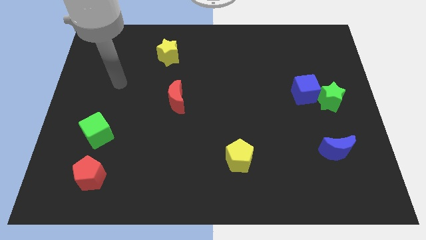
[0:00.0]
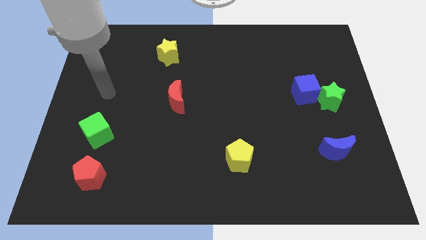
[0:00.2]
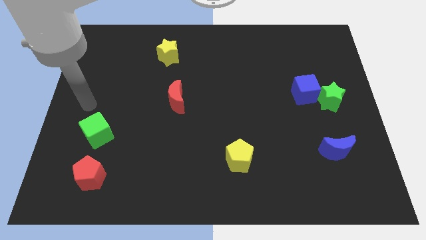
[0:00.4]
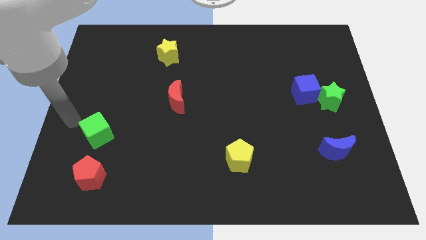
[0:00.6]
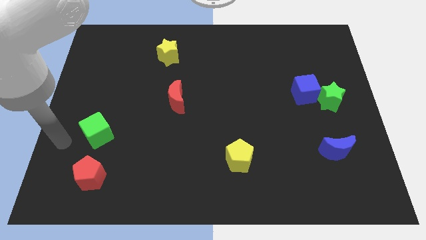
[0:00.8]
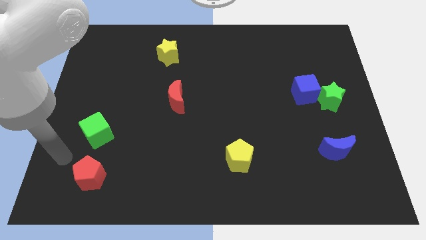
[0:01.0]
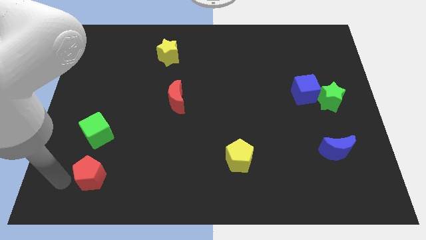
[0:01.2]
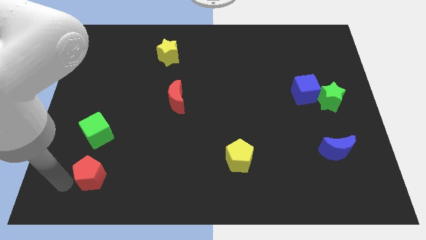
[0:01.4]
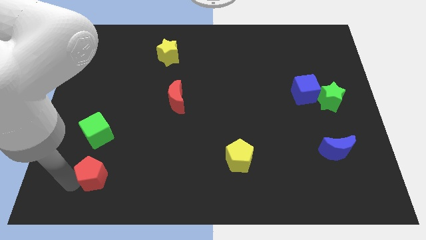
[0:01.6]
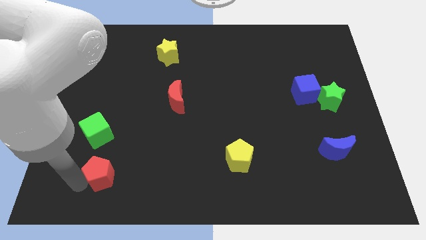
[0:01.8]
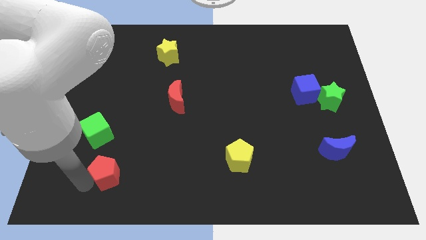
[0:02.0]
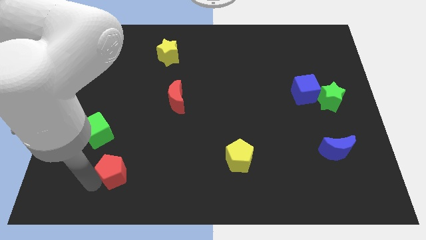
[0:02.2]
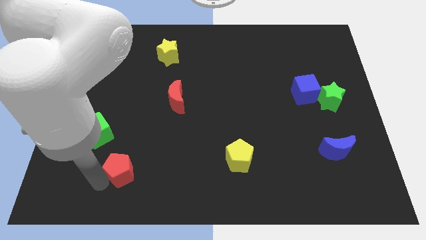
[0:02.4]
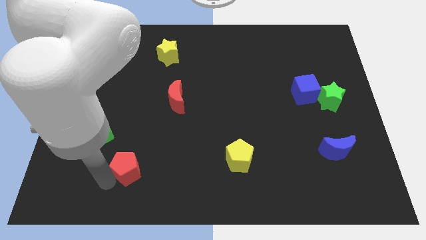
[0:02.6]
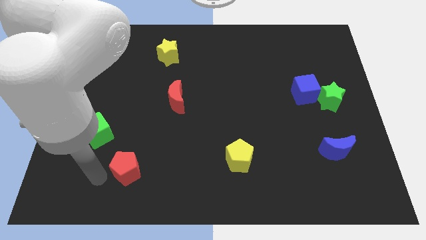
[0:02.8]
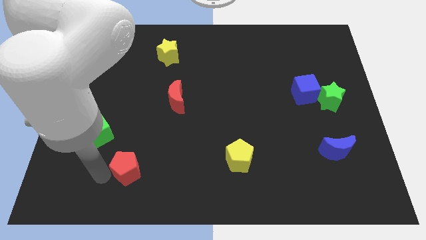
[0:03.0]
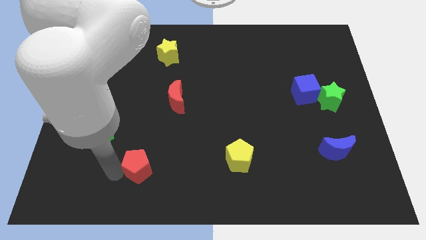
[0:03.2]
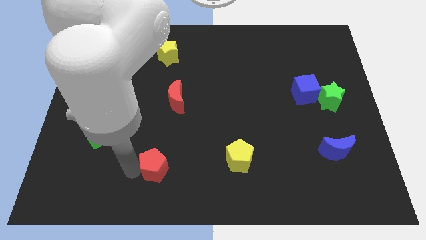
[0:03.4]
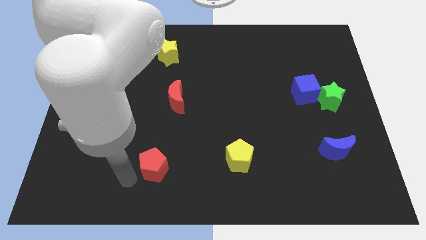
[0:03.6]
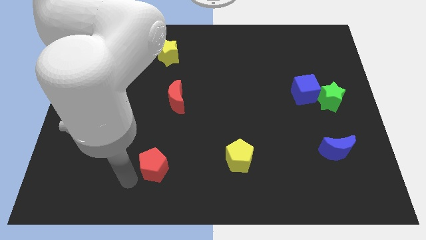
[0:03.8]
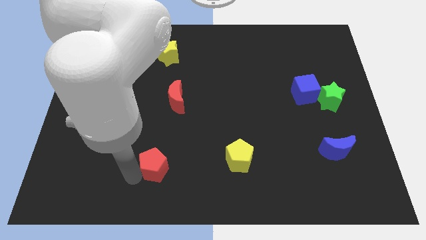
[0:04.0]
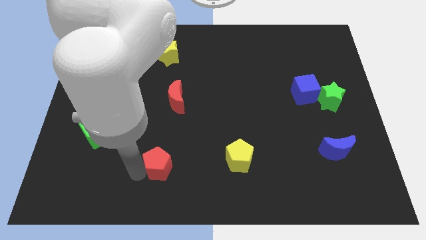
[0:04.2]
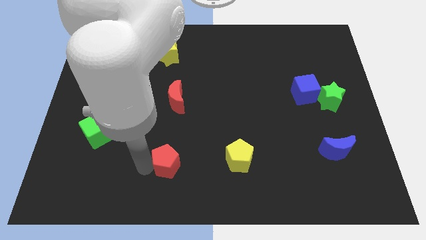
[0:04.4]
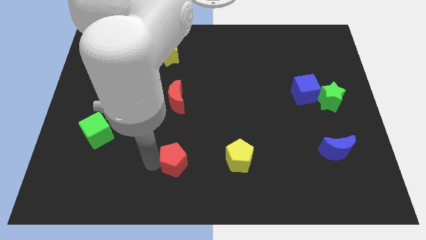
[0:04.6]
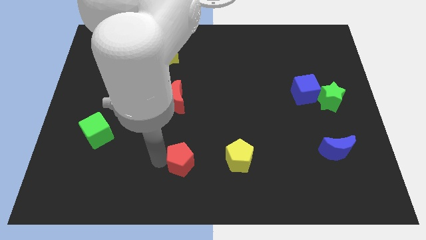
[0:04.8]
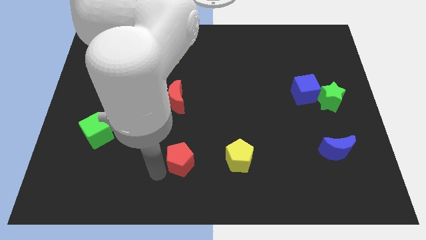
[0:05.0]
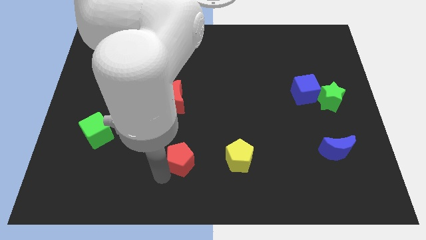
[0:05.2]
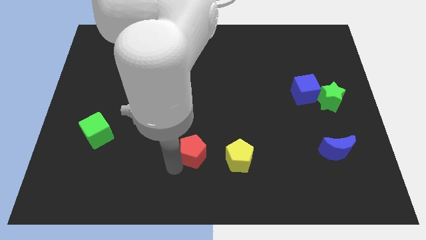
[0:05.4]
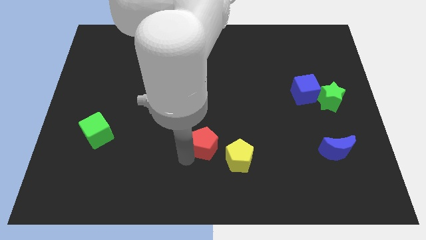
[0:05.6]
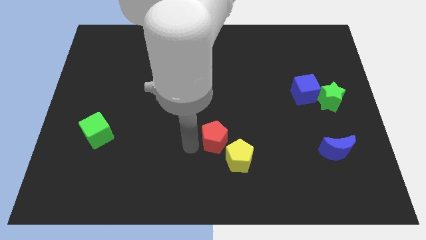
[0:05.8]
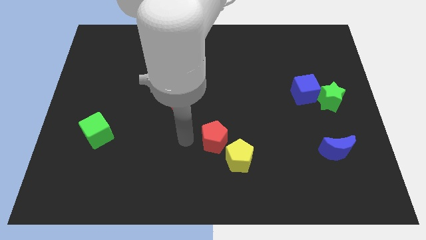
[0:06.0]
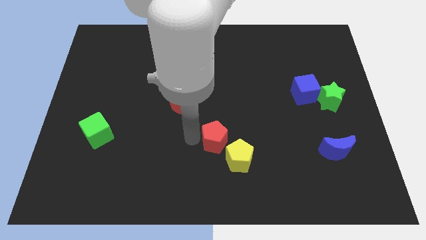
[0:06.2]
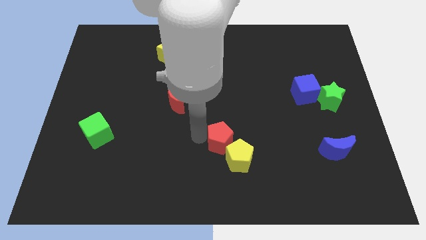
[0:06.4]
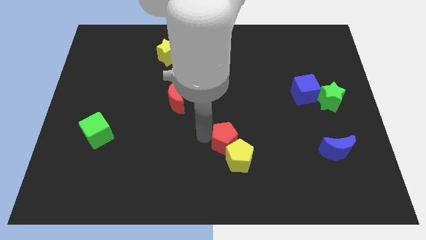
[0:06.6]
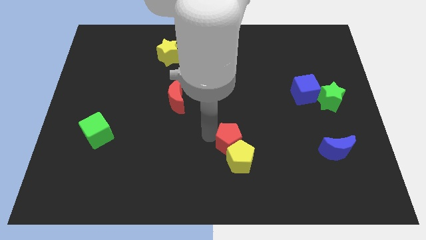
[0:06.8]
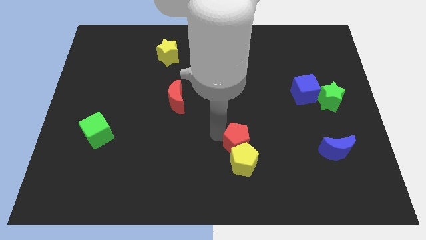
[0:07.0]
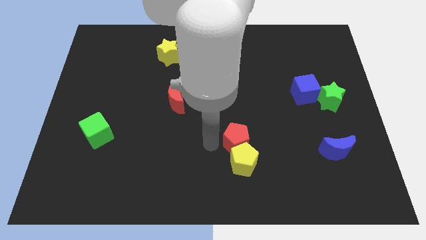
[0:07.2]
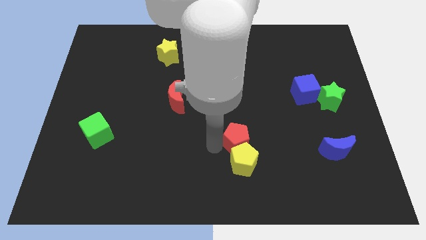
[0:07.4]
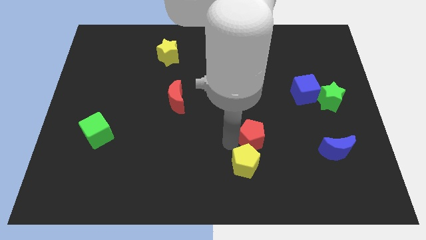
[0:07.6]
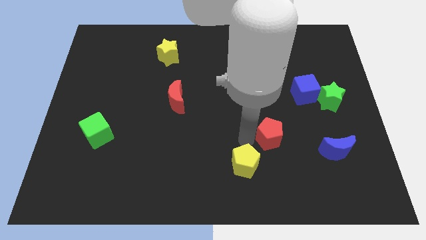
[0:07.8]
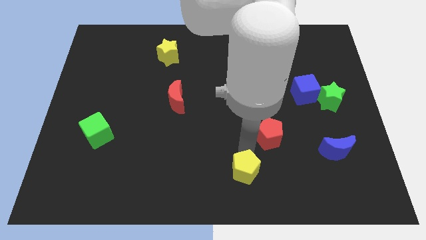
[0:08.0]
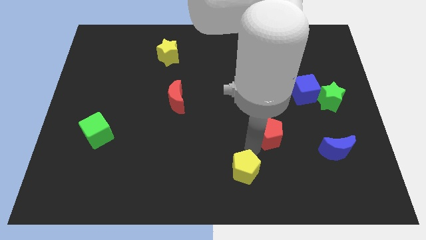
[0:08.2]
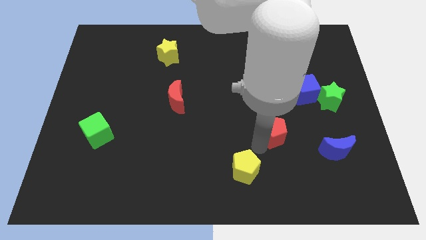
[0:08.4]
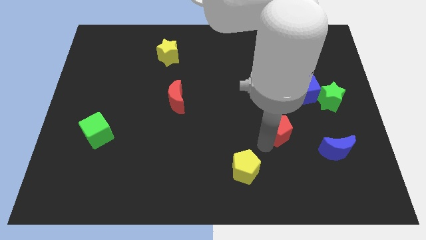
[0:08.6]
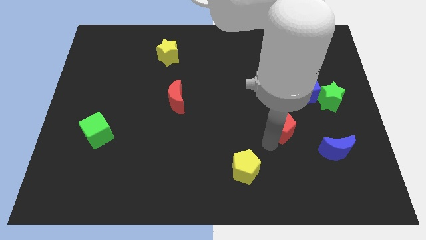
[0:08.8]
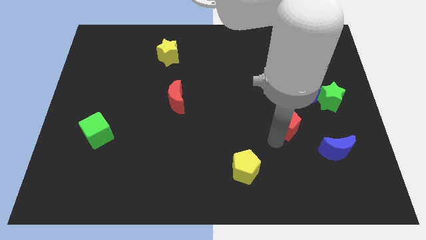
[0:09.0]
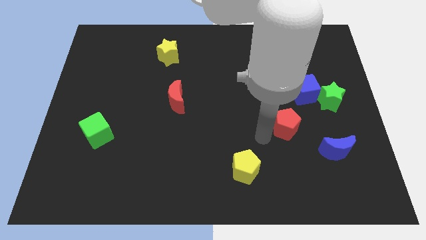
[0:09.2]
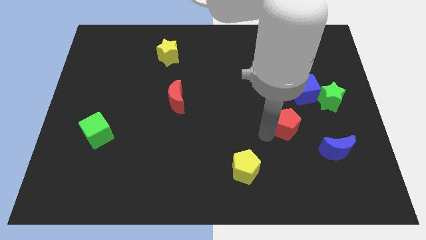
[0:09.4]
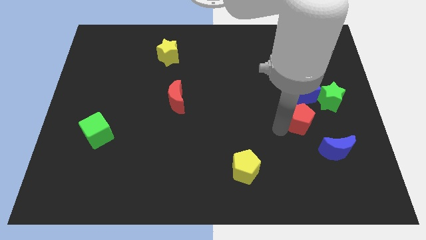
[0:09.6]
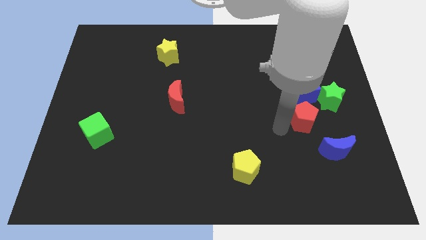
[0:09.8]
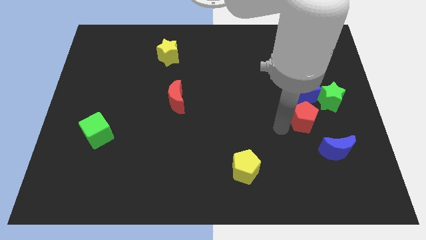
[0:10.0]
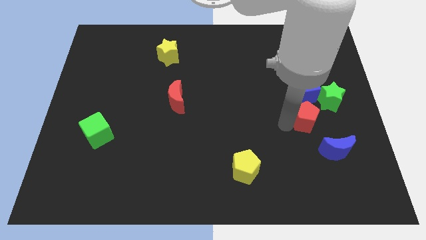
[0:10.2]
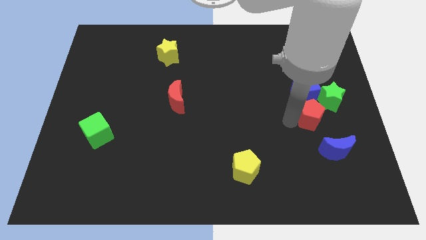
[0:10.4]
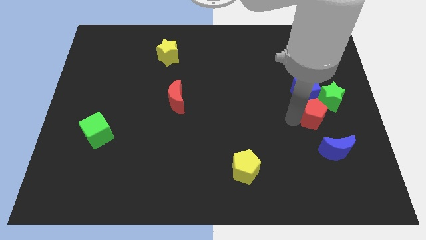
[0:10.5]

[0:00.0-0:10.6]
push the red pentagon to the bottom right side of the blue cube

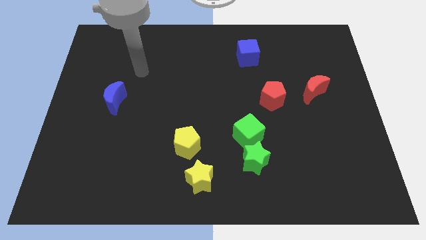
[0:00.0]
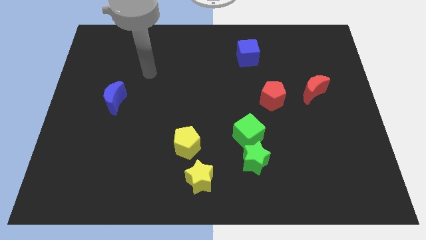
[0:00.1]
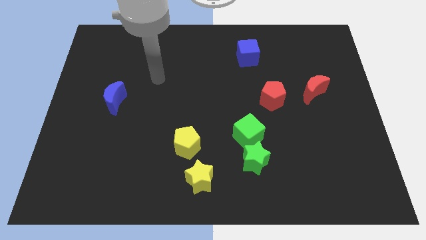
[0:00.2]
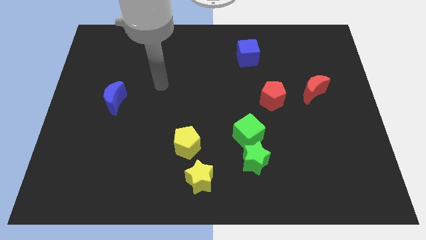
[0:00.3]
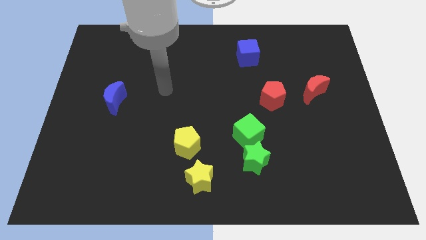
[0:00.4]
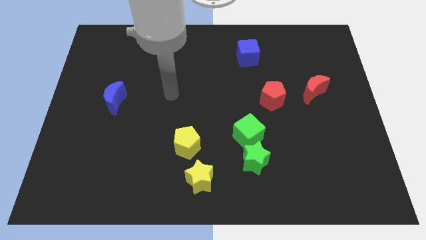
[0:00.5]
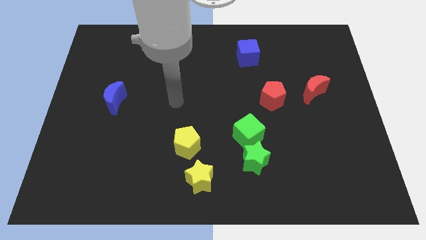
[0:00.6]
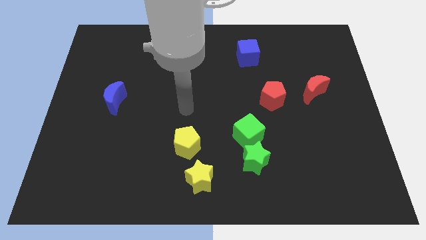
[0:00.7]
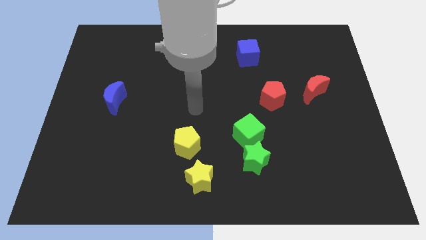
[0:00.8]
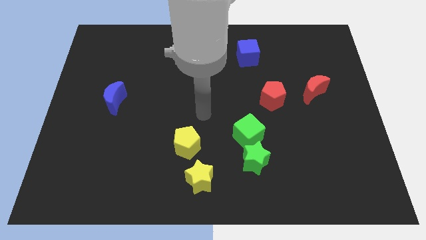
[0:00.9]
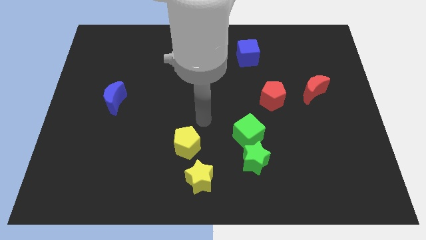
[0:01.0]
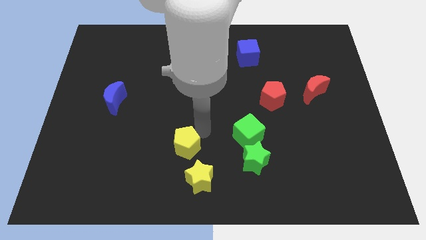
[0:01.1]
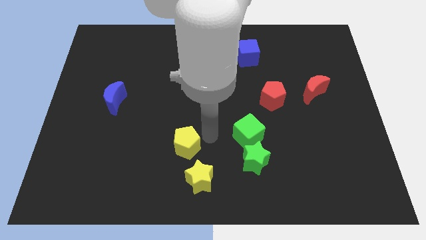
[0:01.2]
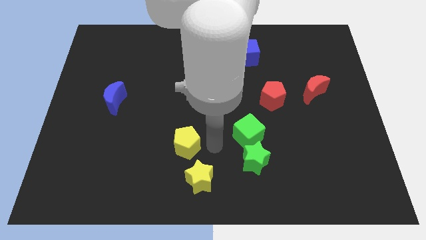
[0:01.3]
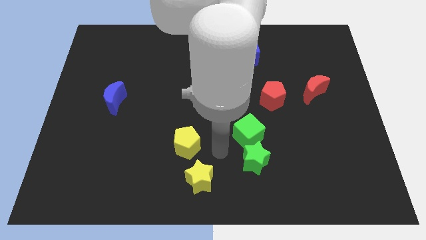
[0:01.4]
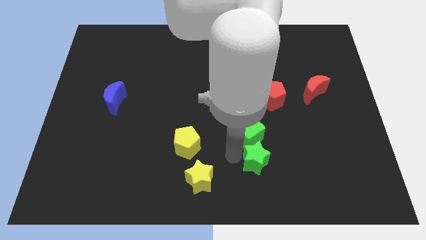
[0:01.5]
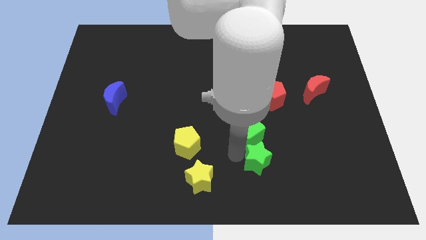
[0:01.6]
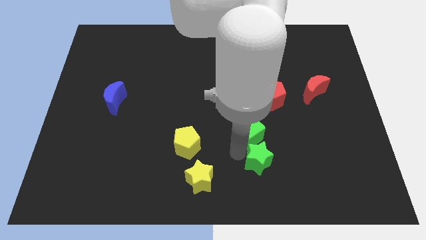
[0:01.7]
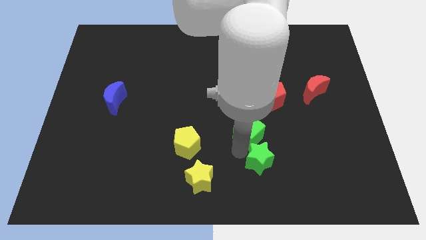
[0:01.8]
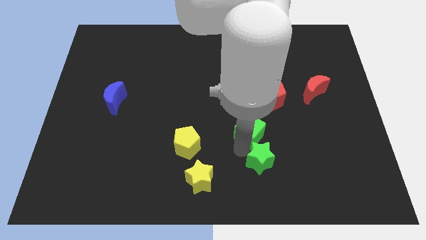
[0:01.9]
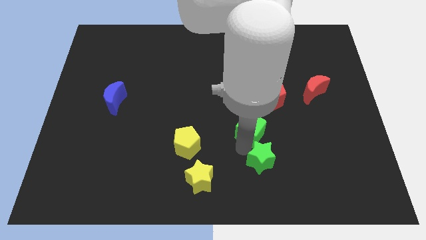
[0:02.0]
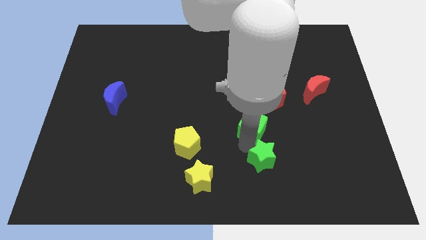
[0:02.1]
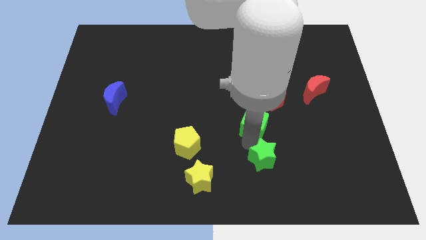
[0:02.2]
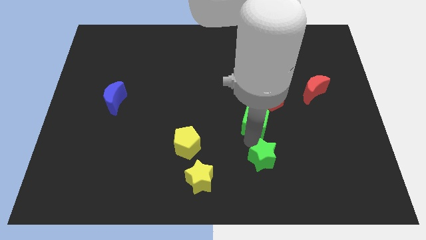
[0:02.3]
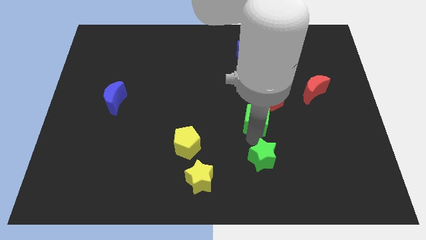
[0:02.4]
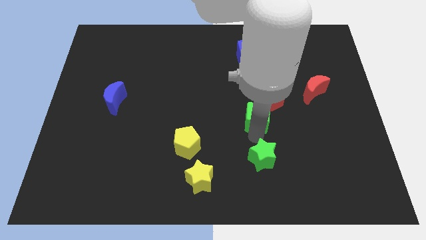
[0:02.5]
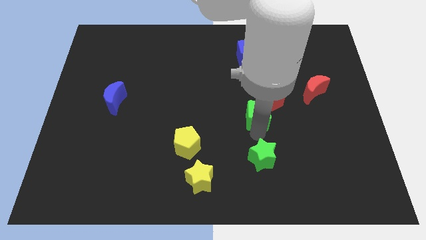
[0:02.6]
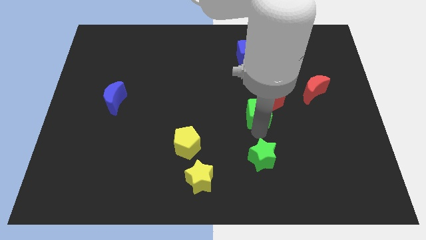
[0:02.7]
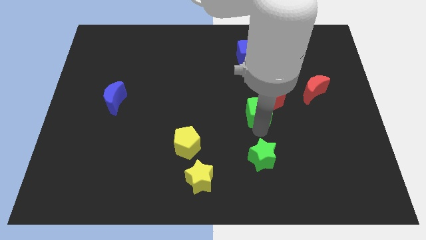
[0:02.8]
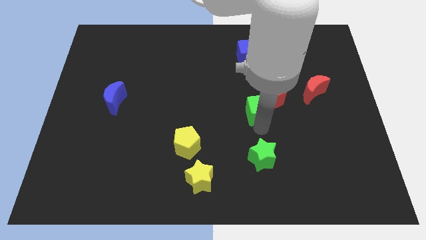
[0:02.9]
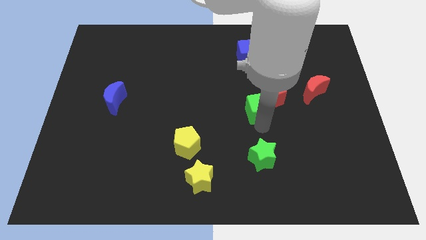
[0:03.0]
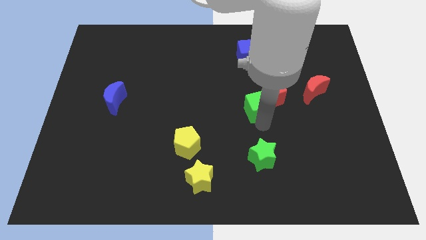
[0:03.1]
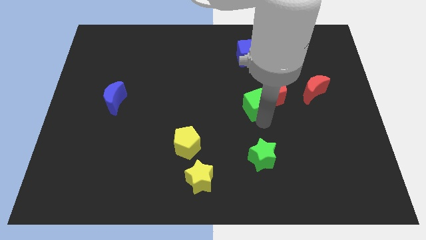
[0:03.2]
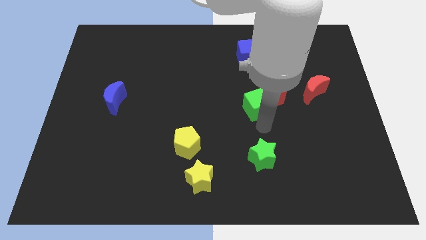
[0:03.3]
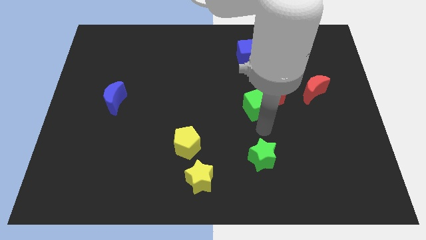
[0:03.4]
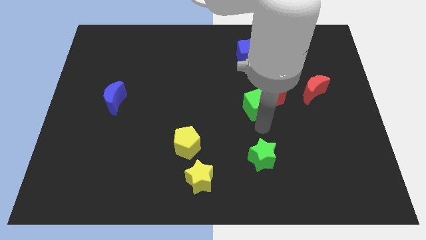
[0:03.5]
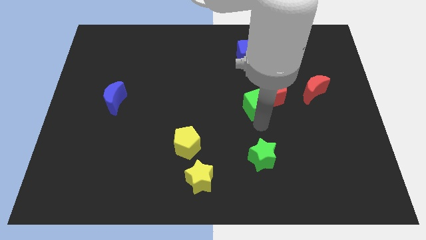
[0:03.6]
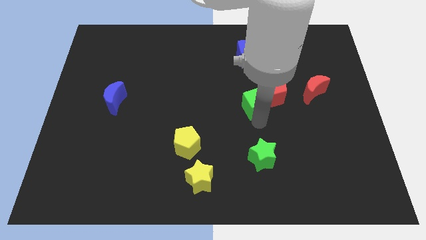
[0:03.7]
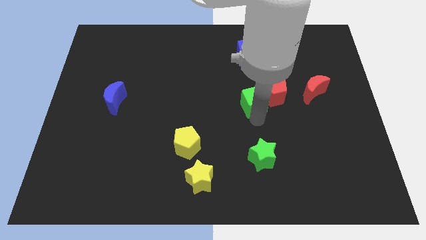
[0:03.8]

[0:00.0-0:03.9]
push the green cube to the bottom side of the blue cube
